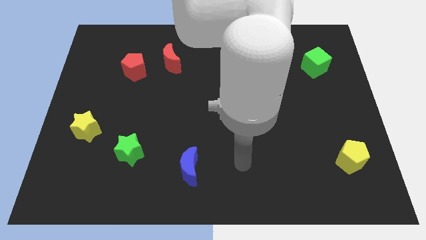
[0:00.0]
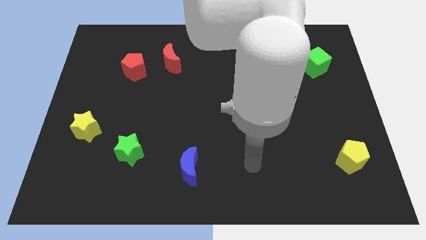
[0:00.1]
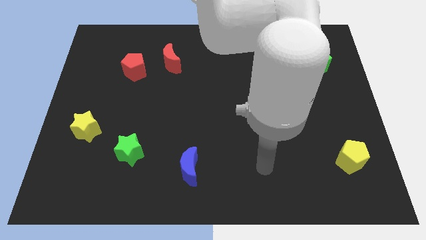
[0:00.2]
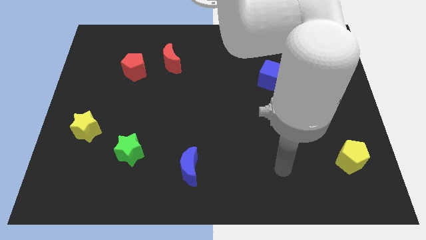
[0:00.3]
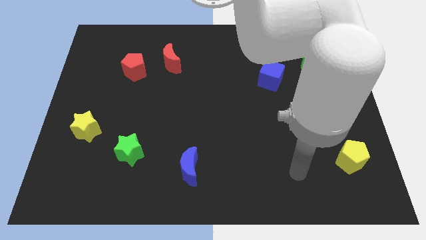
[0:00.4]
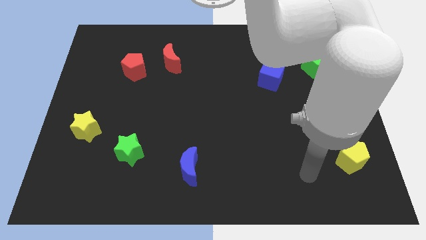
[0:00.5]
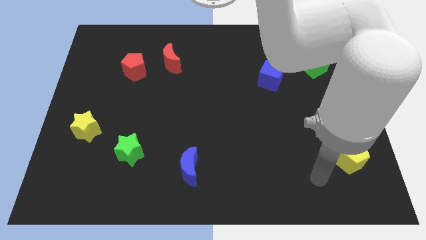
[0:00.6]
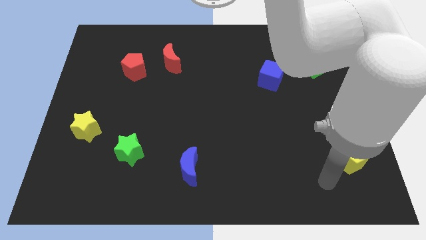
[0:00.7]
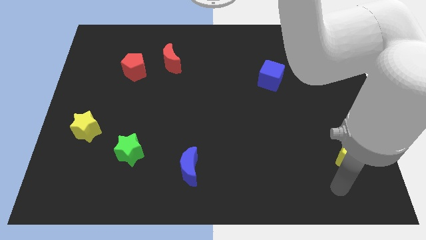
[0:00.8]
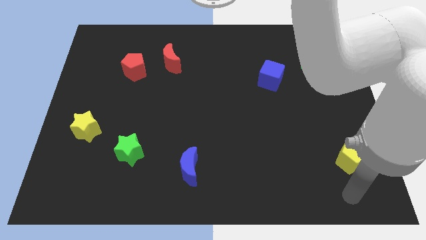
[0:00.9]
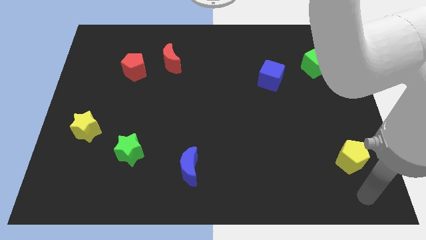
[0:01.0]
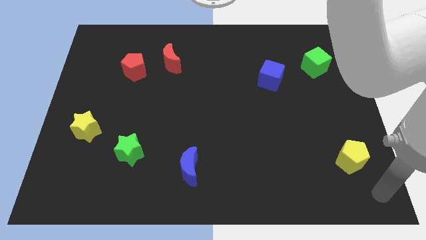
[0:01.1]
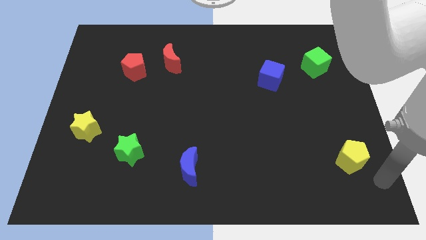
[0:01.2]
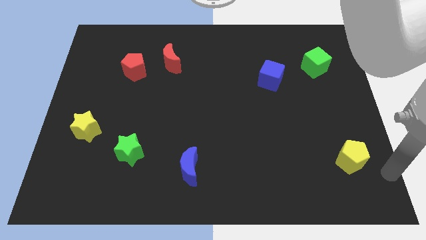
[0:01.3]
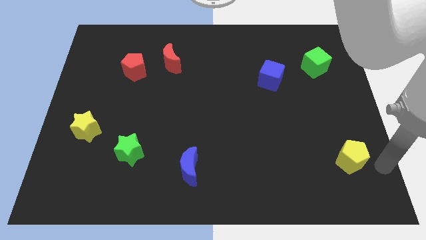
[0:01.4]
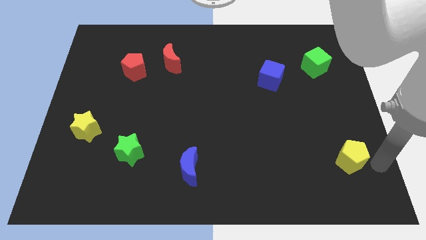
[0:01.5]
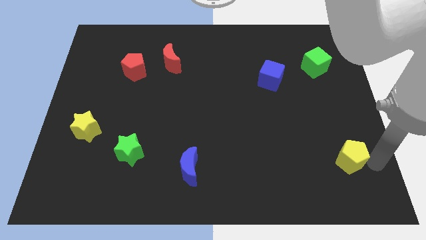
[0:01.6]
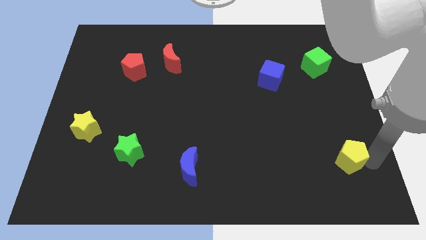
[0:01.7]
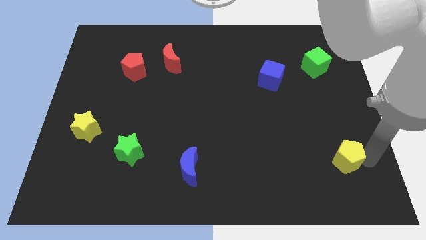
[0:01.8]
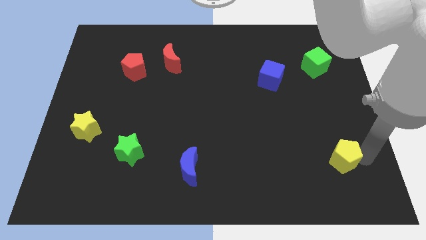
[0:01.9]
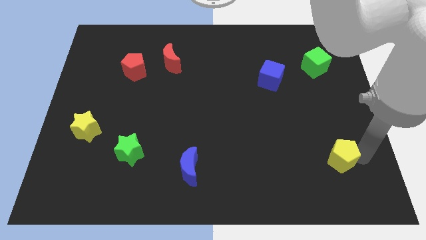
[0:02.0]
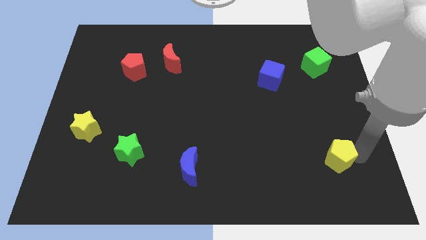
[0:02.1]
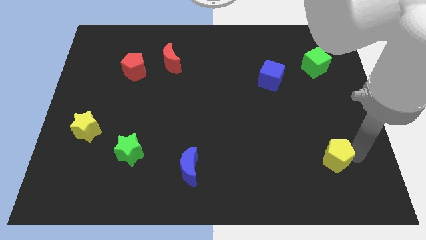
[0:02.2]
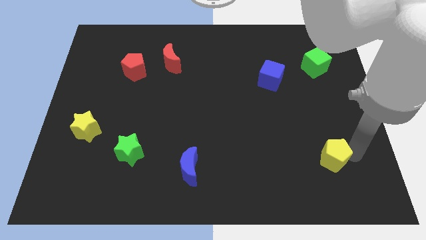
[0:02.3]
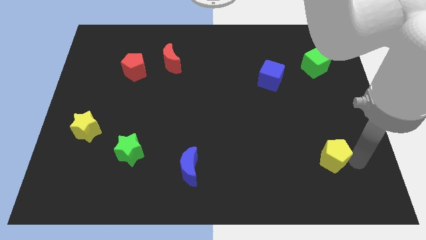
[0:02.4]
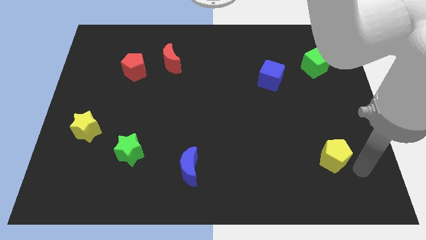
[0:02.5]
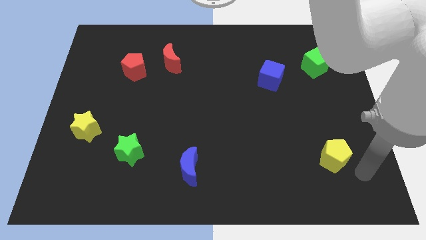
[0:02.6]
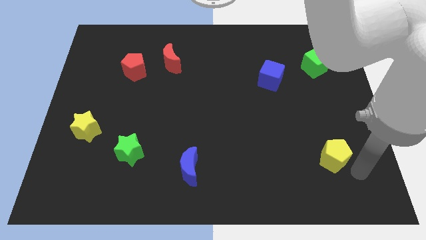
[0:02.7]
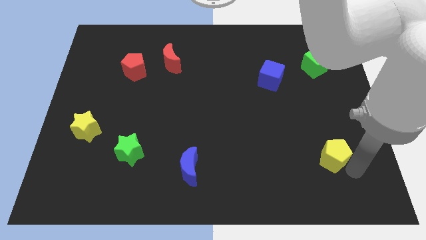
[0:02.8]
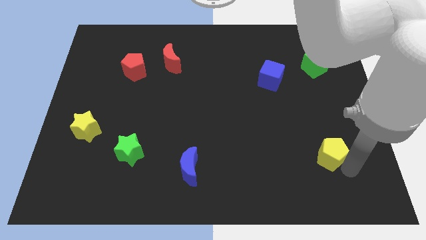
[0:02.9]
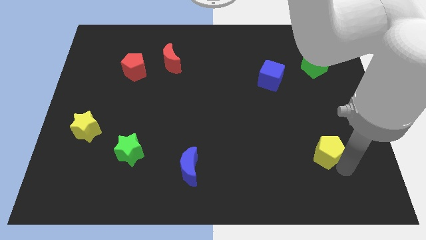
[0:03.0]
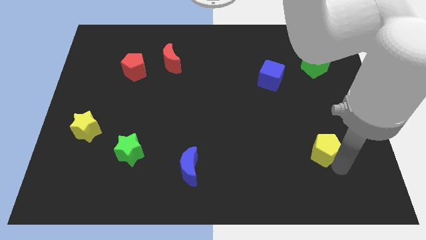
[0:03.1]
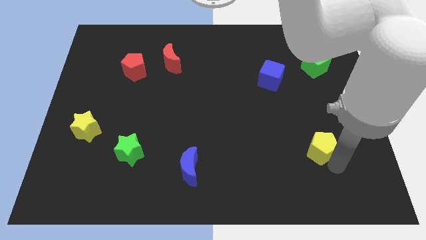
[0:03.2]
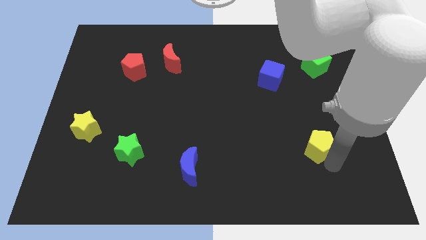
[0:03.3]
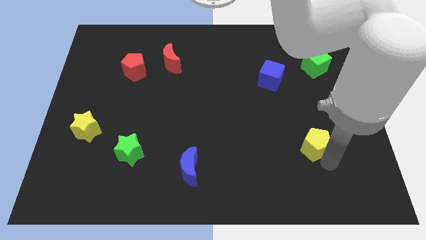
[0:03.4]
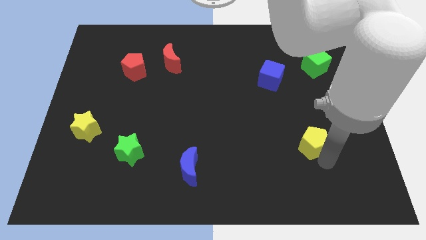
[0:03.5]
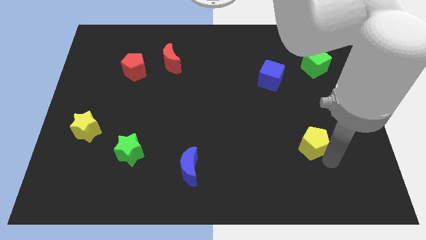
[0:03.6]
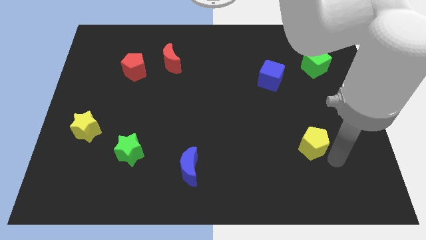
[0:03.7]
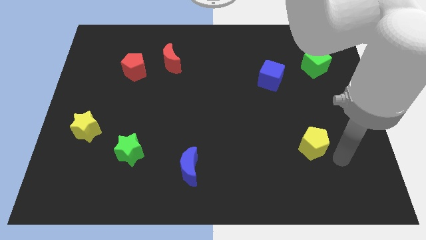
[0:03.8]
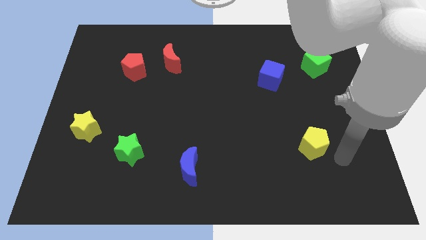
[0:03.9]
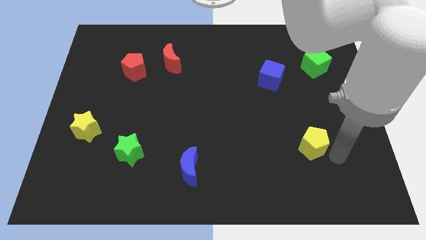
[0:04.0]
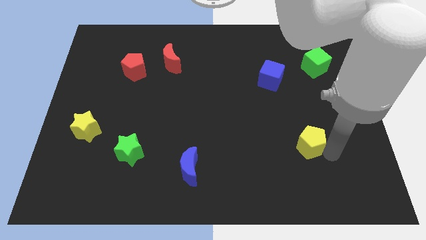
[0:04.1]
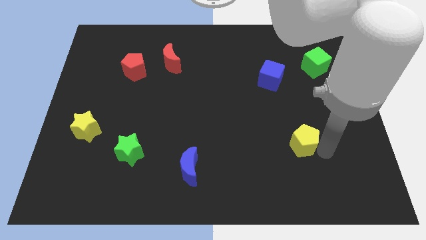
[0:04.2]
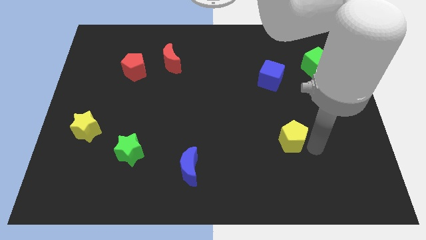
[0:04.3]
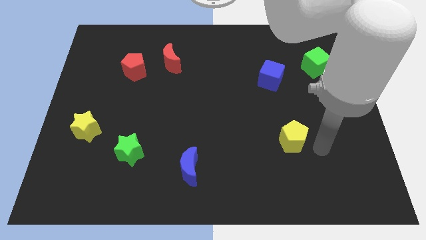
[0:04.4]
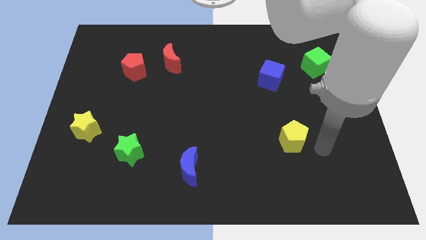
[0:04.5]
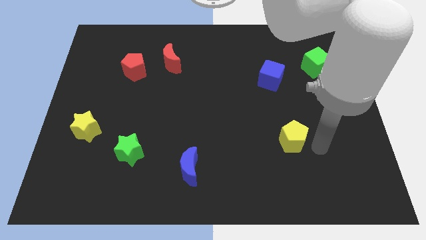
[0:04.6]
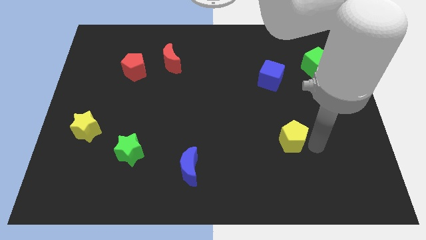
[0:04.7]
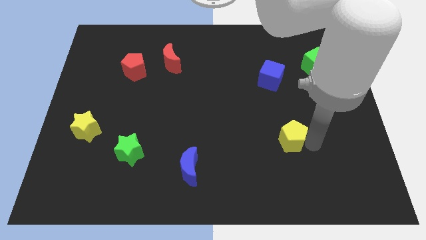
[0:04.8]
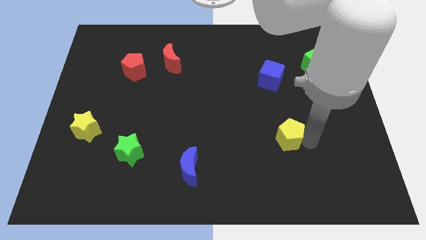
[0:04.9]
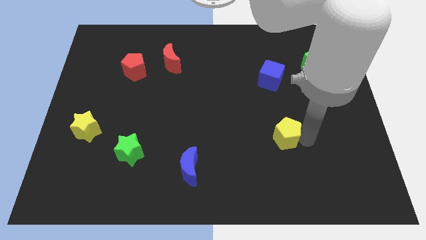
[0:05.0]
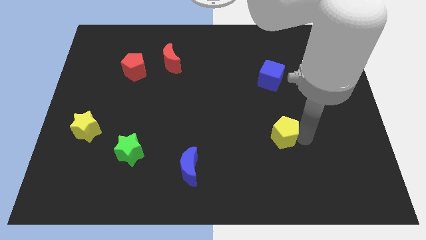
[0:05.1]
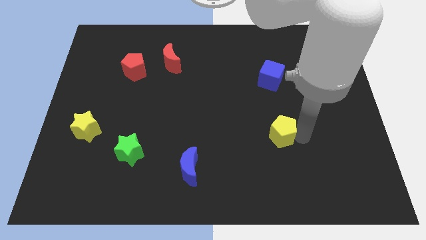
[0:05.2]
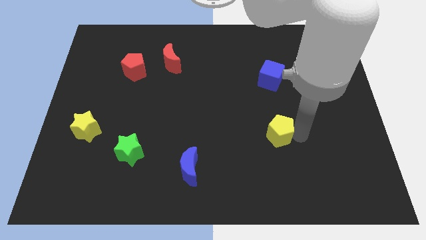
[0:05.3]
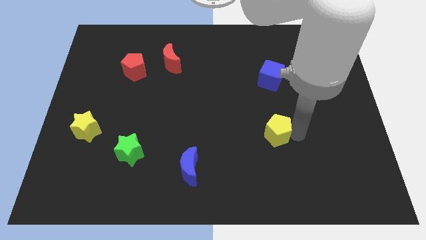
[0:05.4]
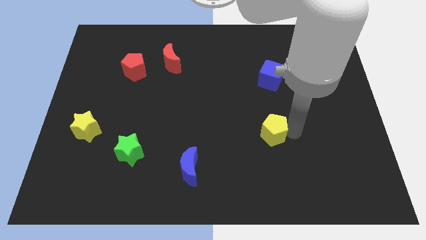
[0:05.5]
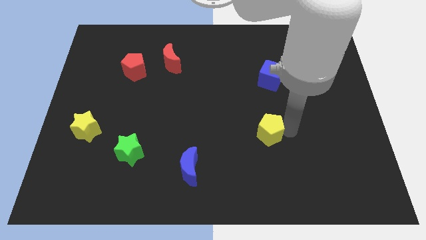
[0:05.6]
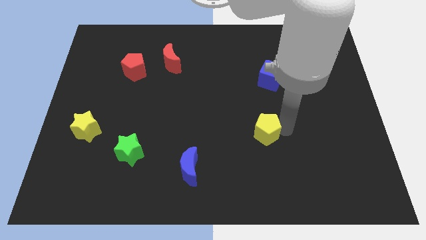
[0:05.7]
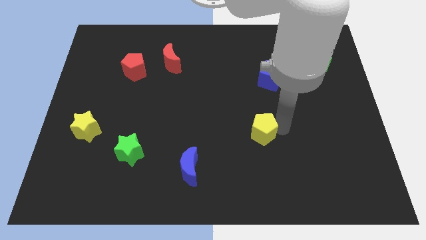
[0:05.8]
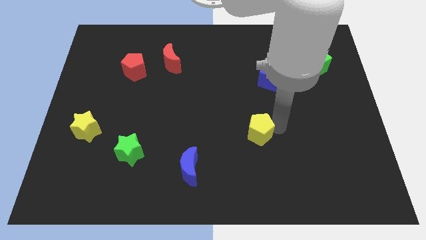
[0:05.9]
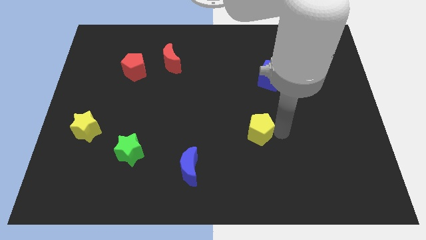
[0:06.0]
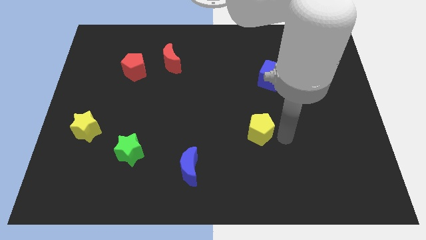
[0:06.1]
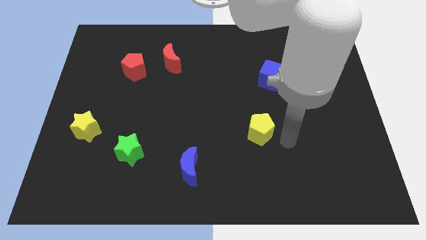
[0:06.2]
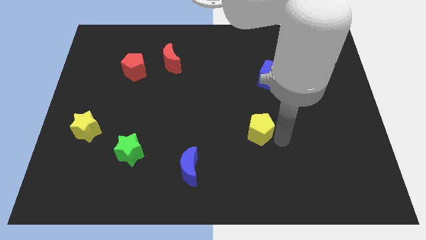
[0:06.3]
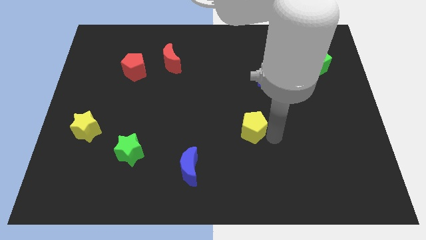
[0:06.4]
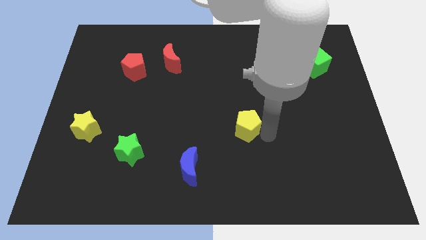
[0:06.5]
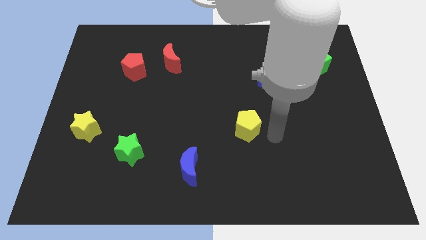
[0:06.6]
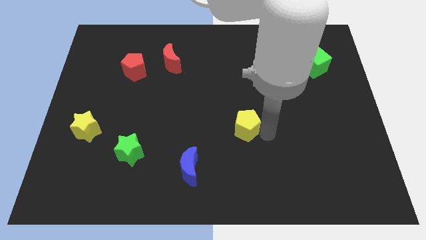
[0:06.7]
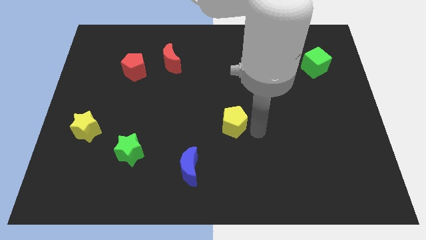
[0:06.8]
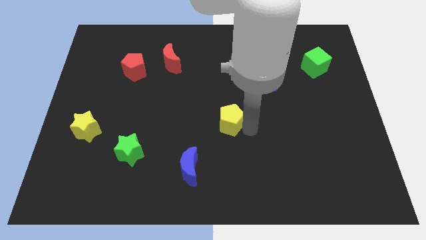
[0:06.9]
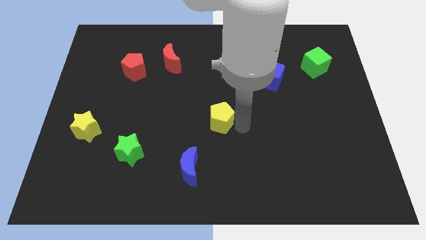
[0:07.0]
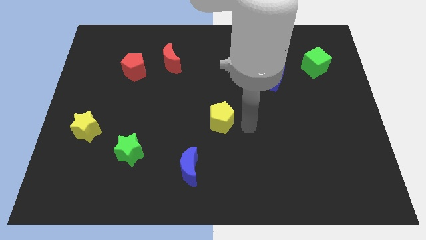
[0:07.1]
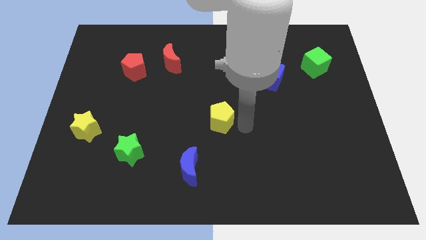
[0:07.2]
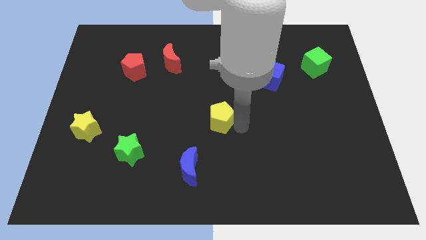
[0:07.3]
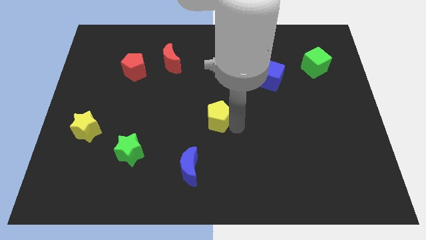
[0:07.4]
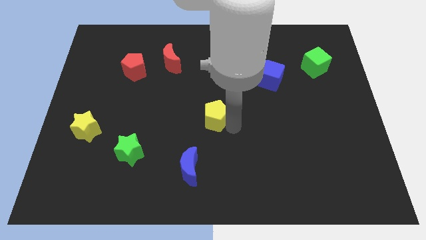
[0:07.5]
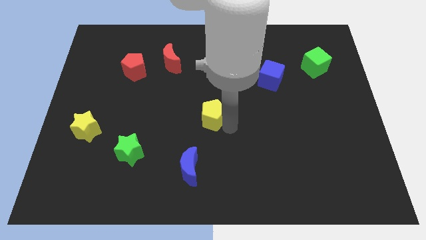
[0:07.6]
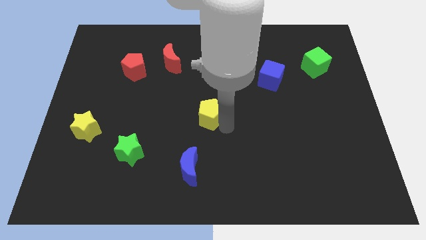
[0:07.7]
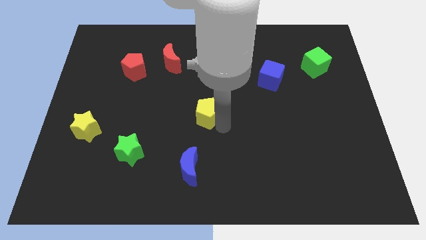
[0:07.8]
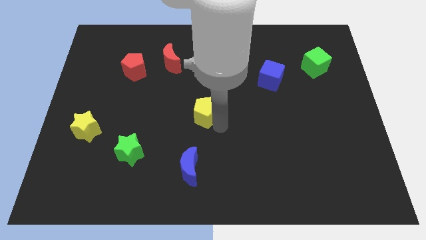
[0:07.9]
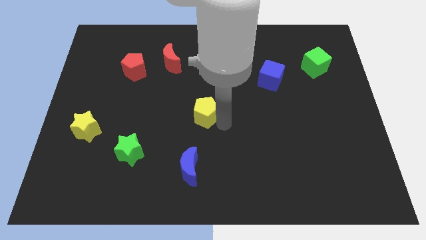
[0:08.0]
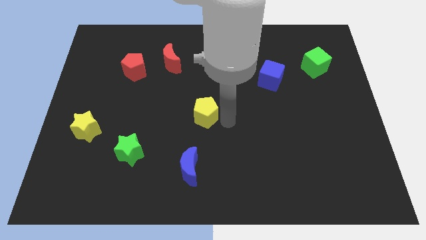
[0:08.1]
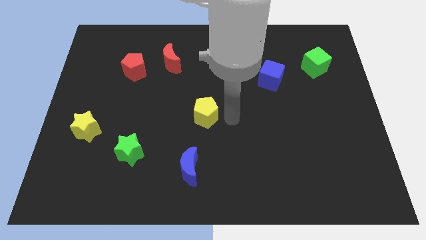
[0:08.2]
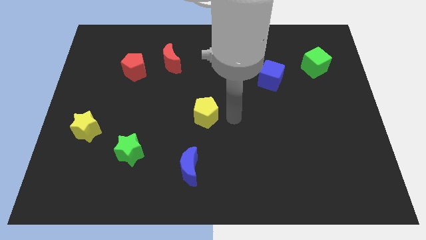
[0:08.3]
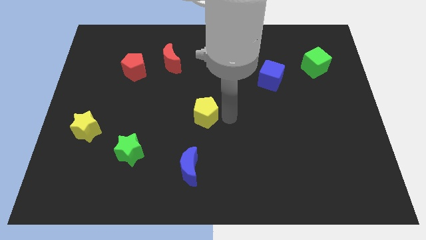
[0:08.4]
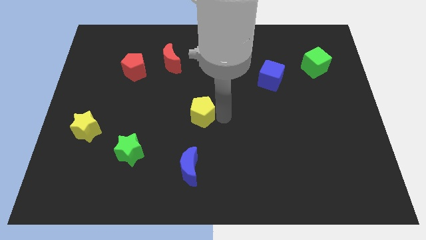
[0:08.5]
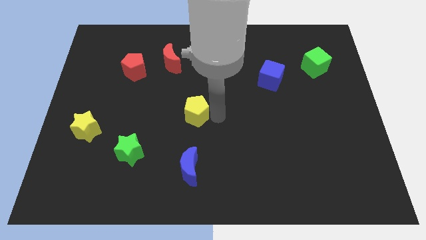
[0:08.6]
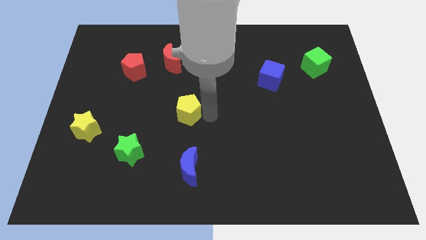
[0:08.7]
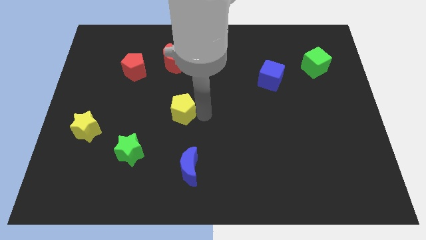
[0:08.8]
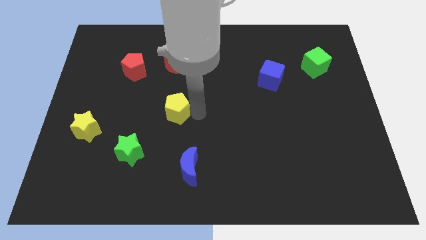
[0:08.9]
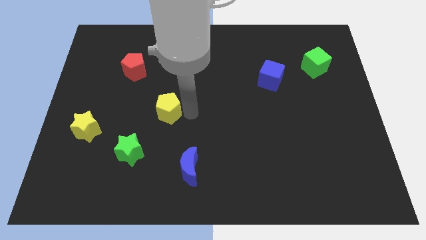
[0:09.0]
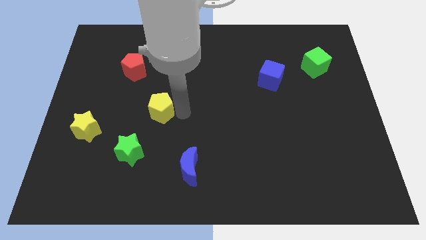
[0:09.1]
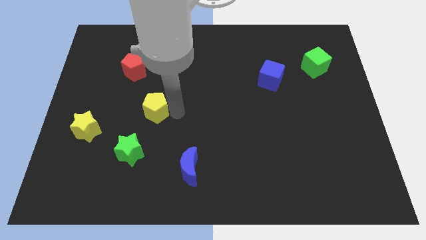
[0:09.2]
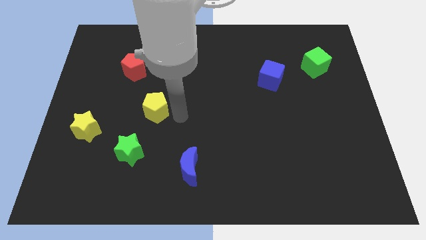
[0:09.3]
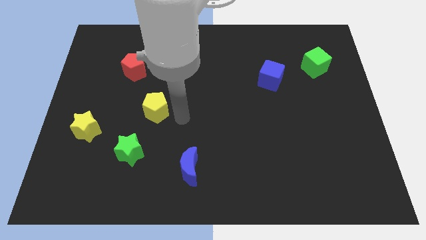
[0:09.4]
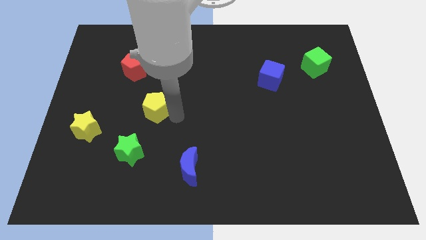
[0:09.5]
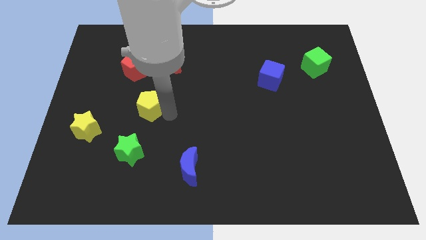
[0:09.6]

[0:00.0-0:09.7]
put the yellow pentagon below the red pentagon
